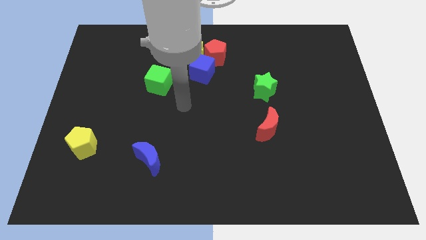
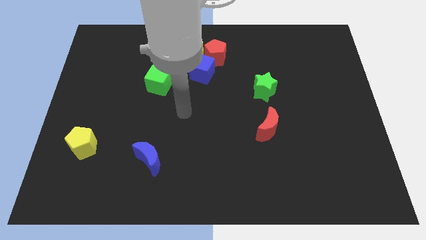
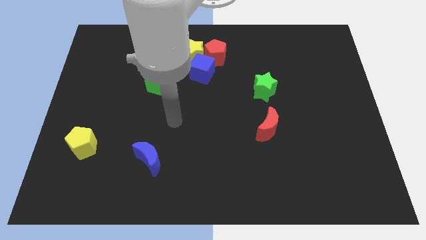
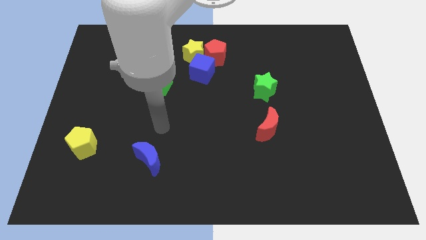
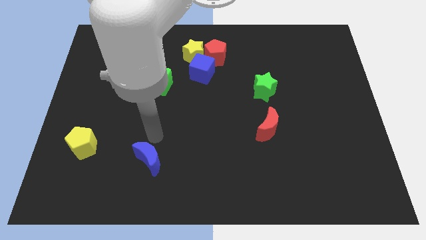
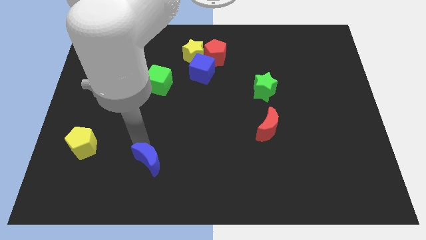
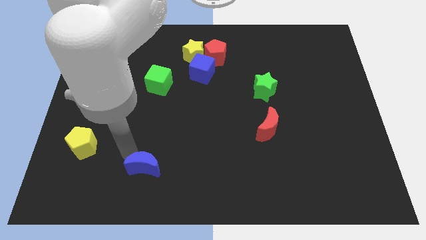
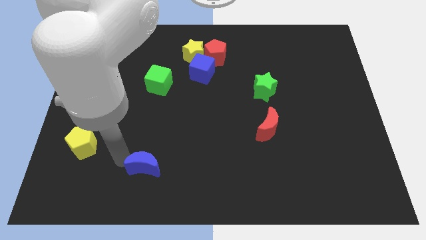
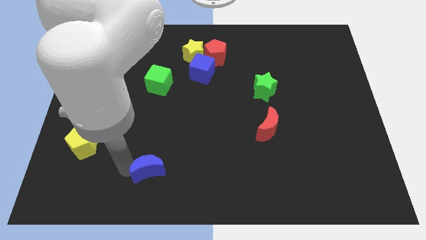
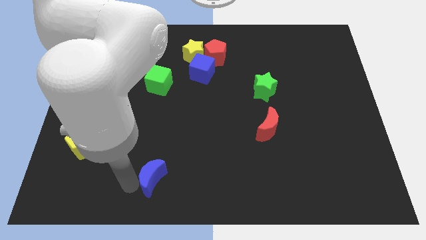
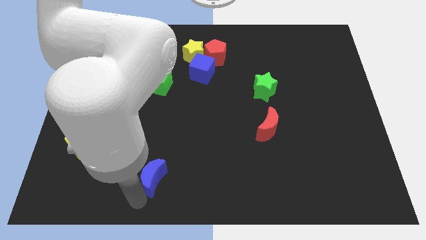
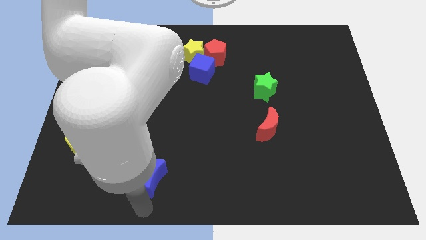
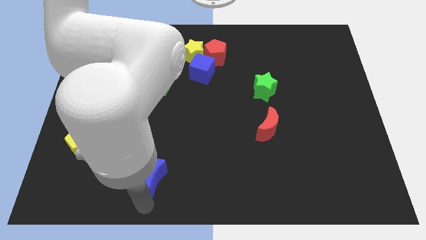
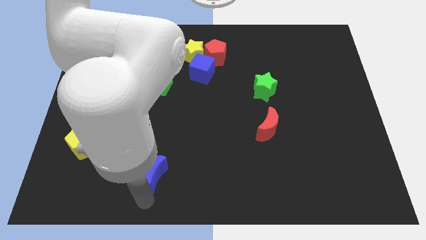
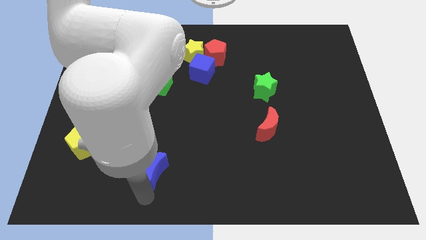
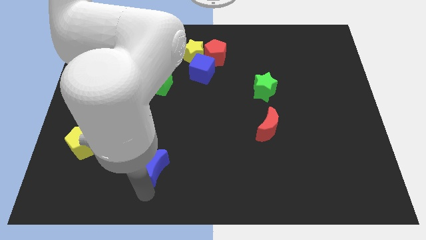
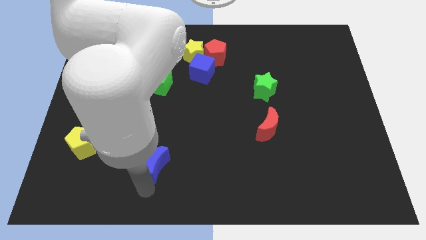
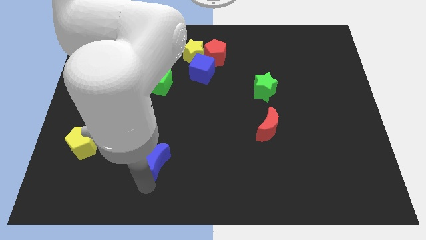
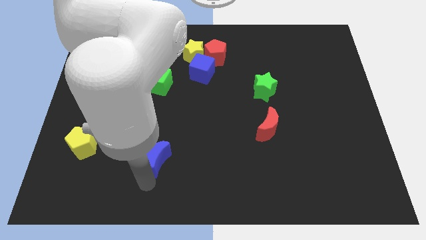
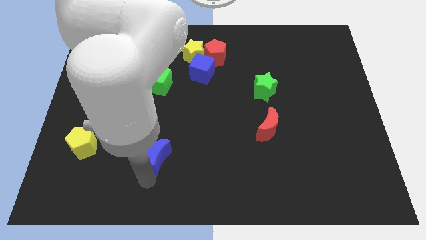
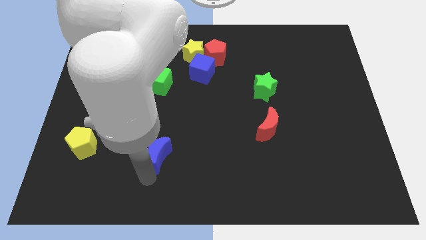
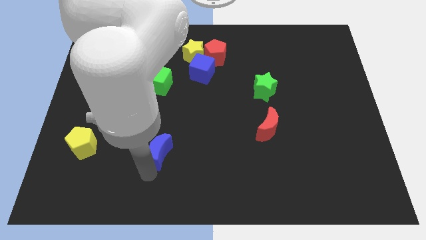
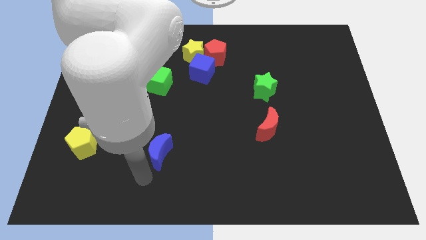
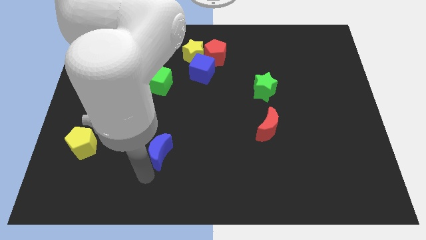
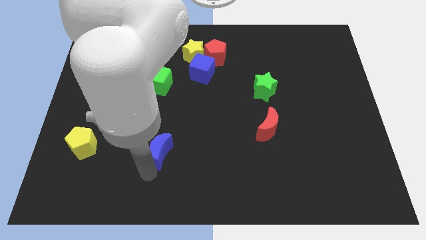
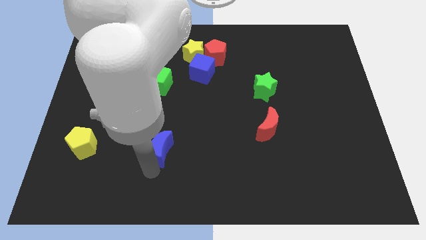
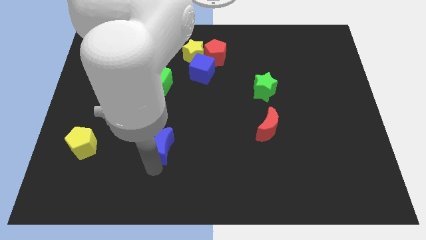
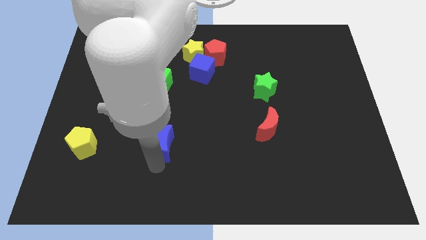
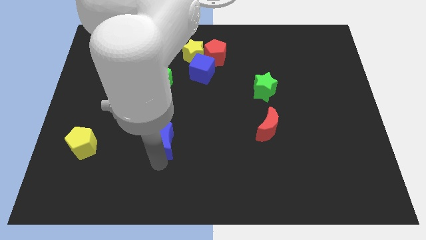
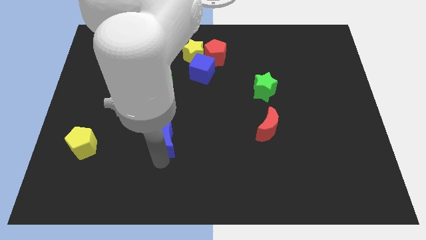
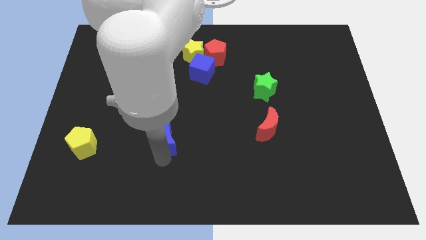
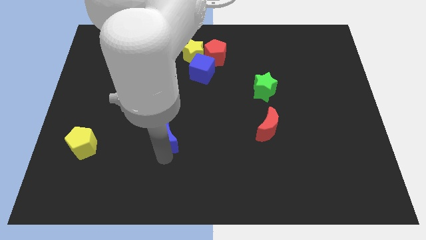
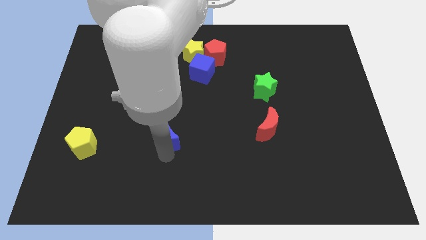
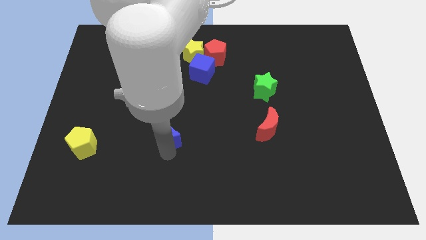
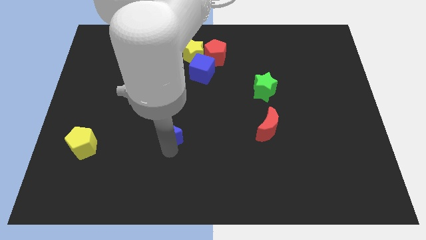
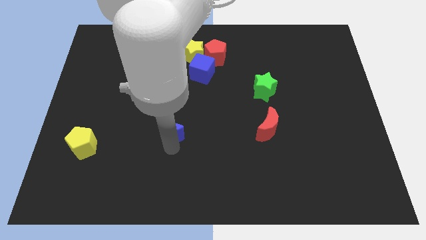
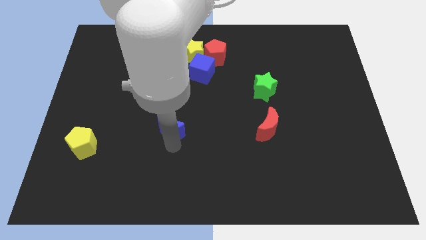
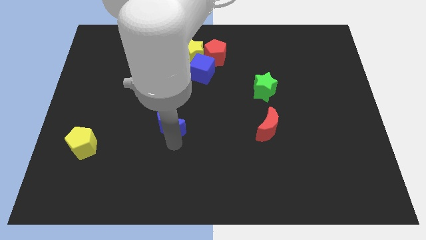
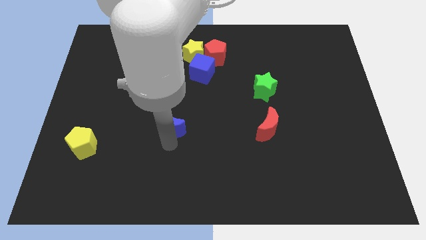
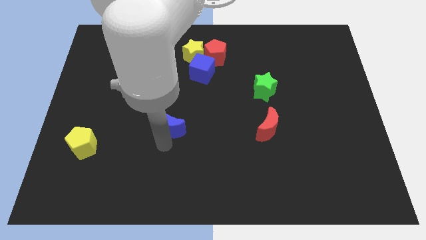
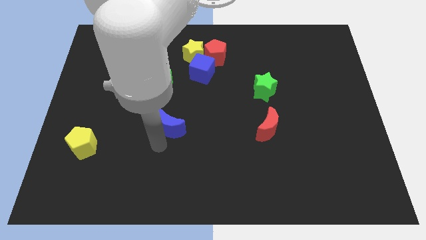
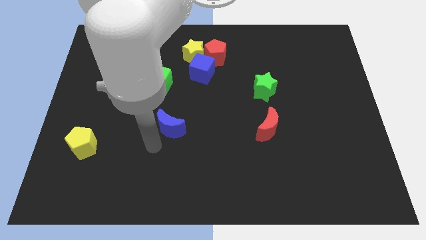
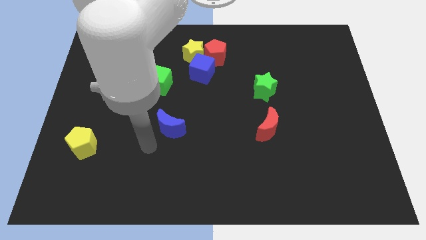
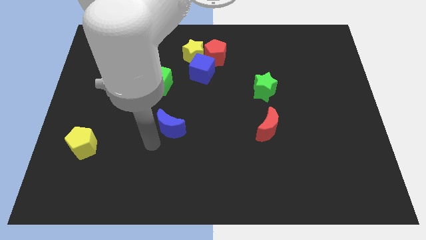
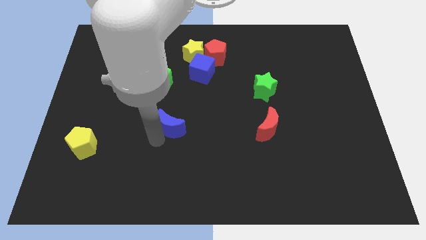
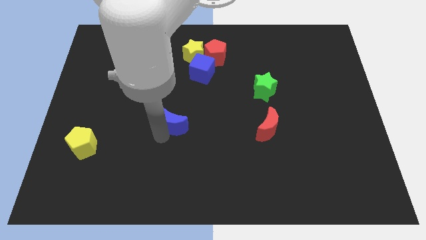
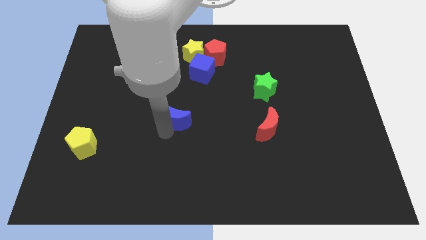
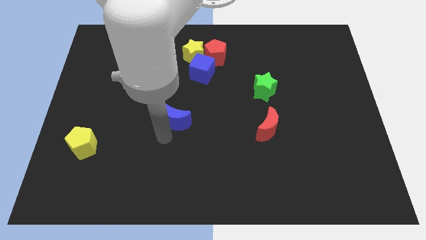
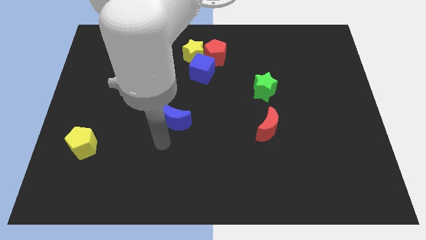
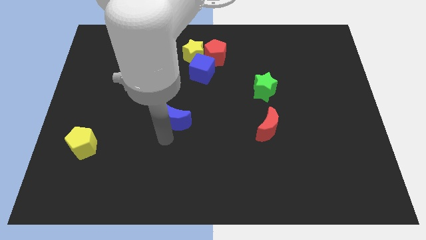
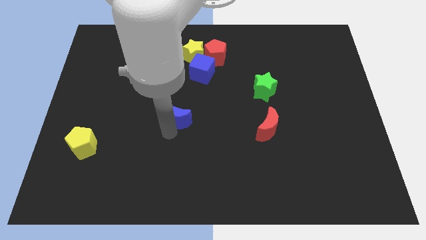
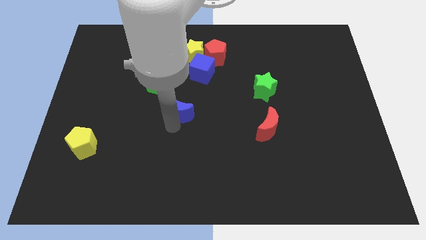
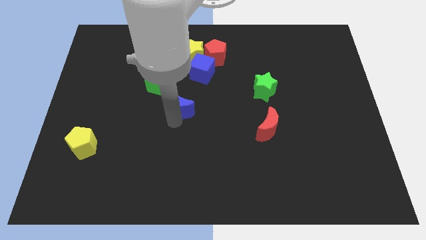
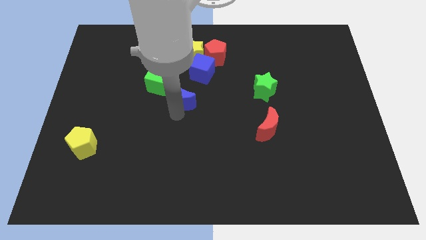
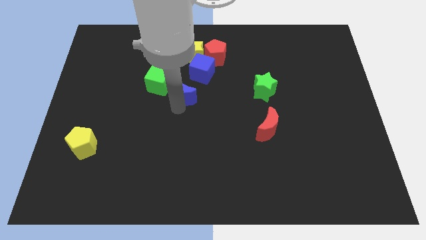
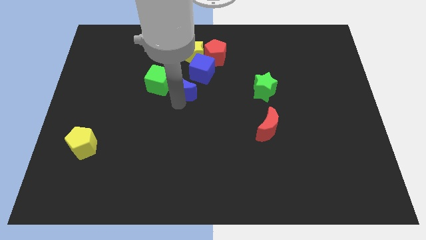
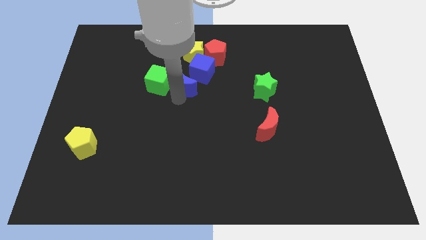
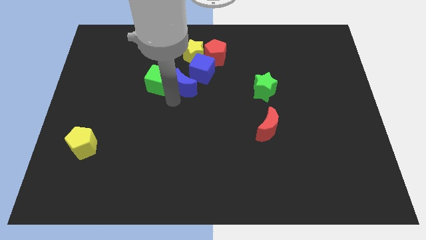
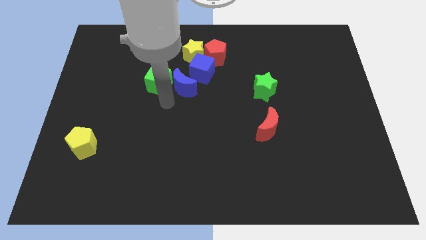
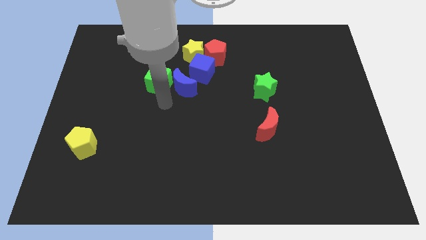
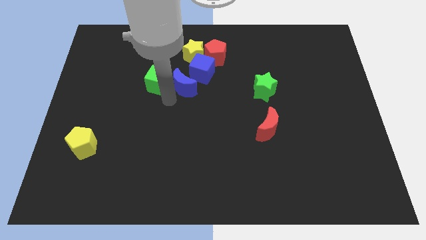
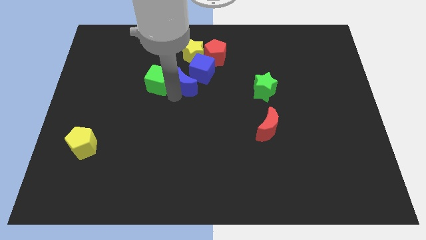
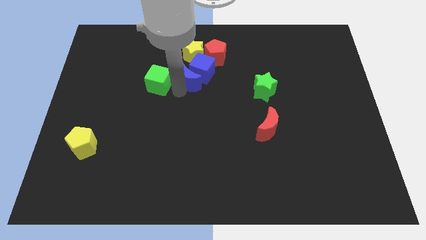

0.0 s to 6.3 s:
slide the blue moon to the blue cube
